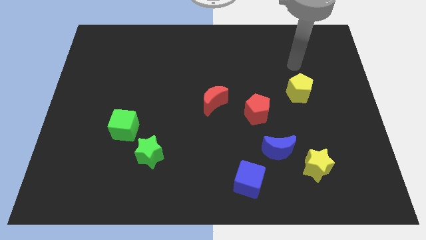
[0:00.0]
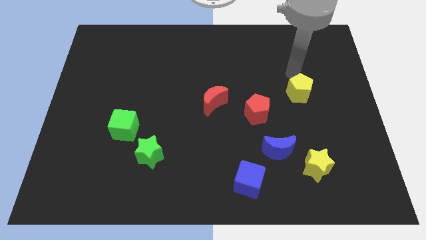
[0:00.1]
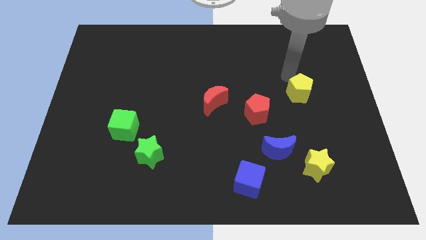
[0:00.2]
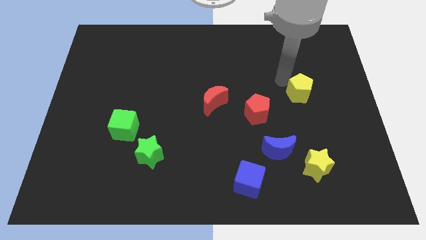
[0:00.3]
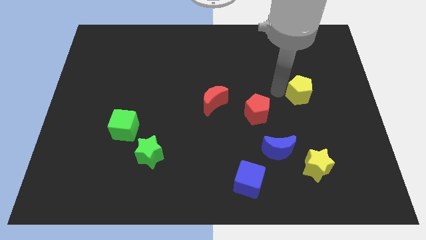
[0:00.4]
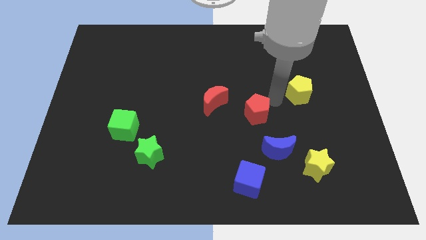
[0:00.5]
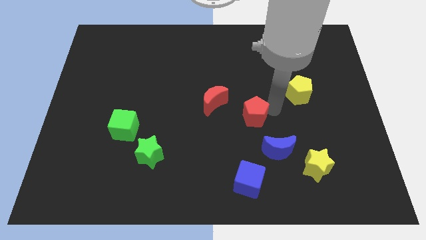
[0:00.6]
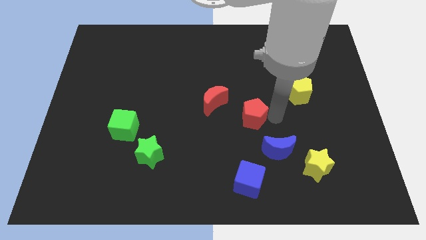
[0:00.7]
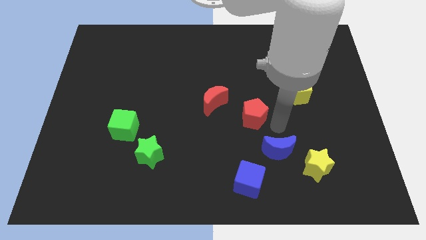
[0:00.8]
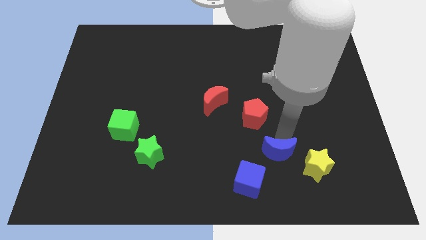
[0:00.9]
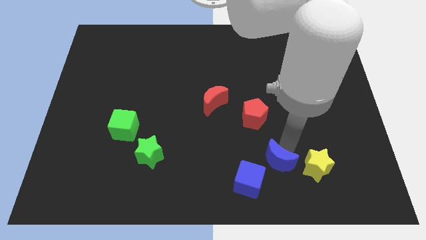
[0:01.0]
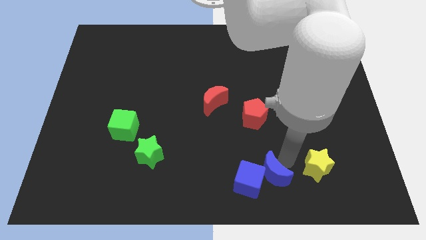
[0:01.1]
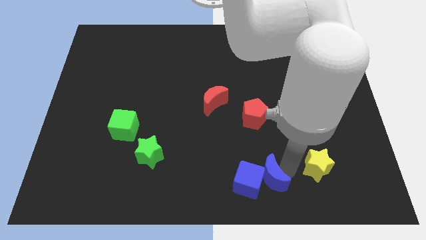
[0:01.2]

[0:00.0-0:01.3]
pull the yellow star apart from the blue moon

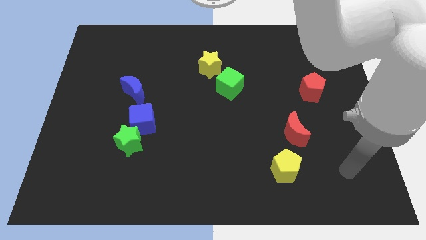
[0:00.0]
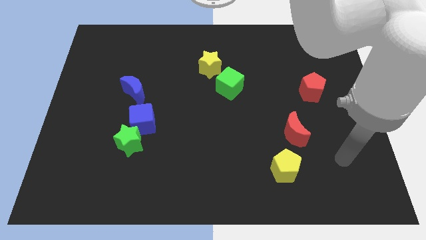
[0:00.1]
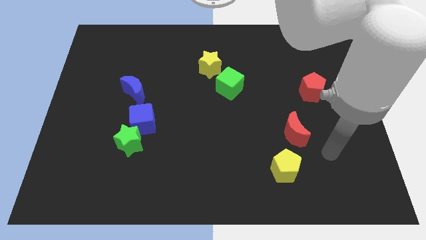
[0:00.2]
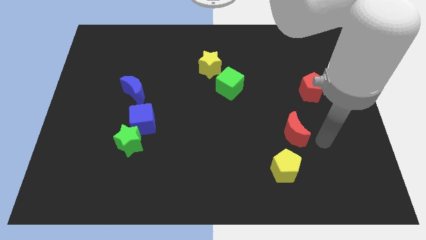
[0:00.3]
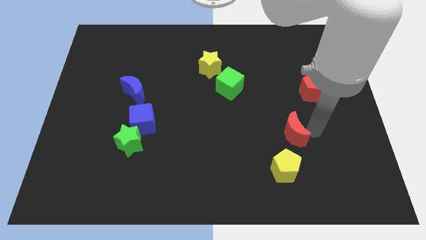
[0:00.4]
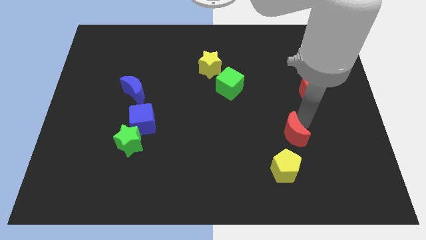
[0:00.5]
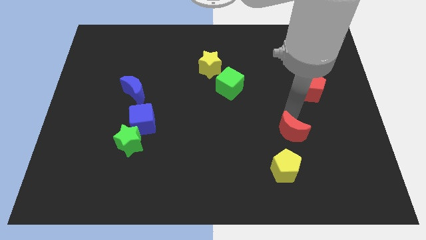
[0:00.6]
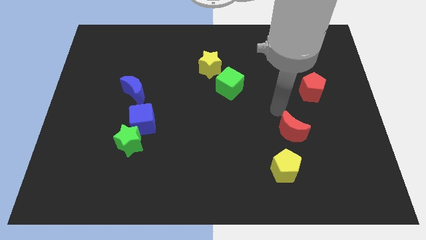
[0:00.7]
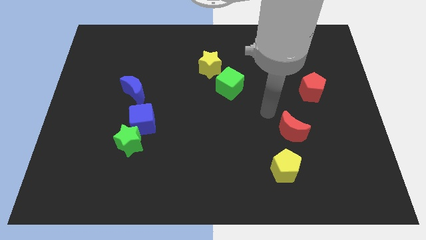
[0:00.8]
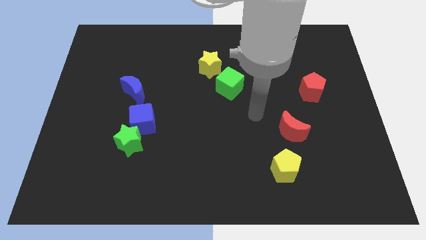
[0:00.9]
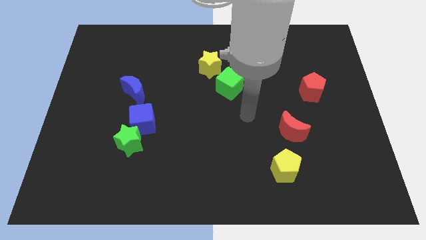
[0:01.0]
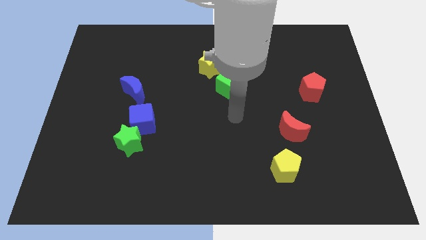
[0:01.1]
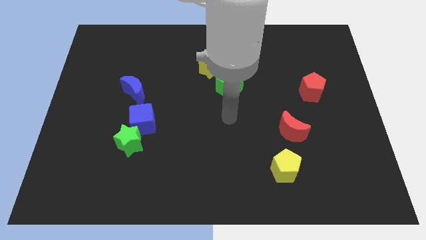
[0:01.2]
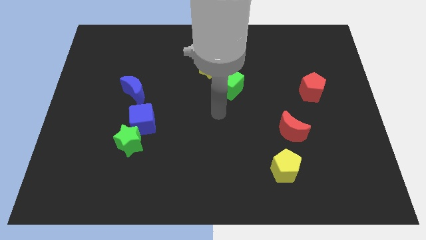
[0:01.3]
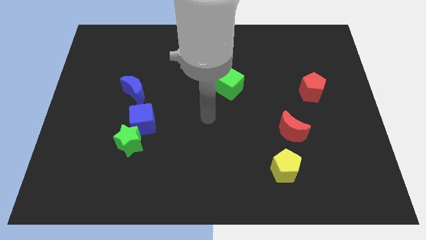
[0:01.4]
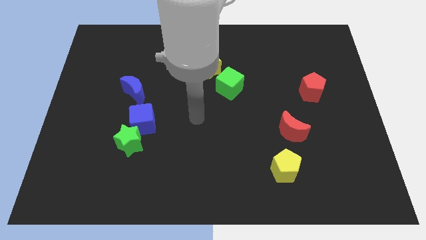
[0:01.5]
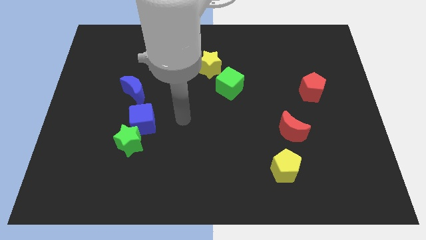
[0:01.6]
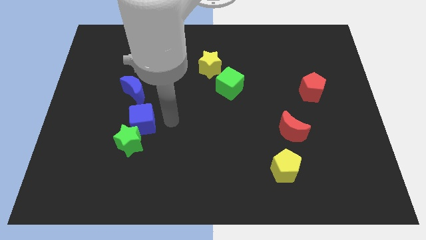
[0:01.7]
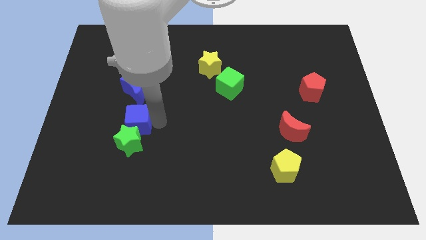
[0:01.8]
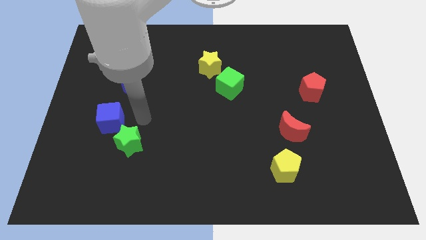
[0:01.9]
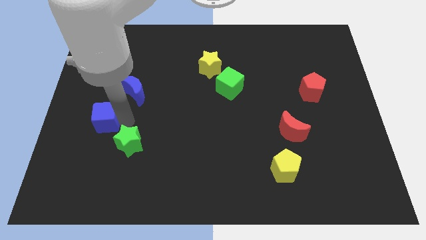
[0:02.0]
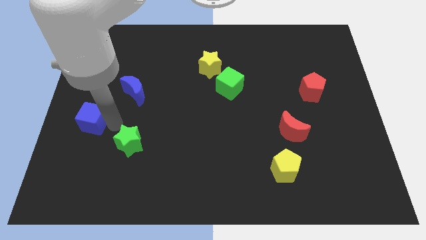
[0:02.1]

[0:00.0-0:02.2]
separate the green star from the blue cube

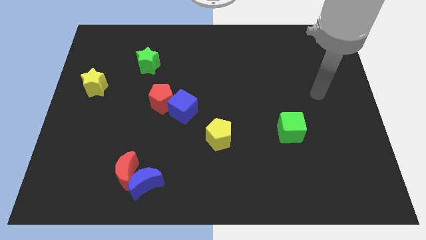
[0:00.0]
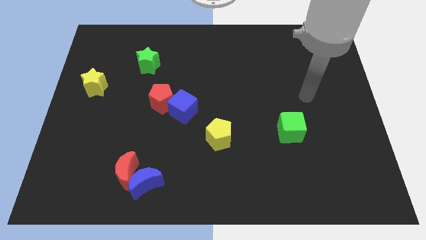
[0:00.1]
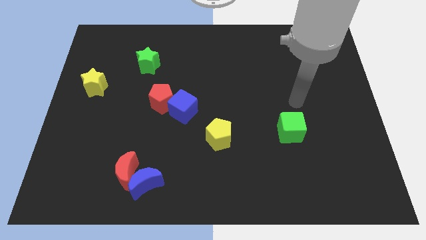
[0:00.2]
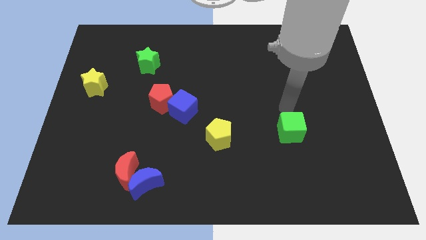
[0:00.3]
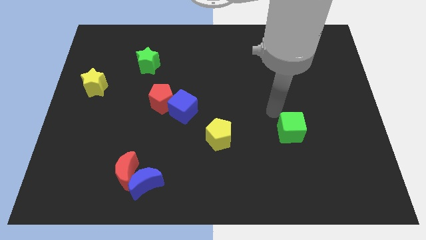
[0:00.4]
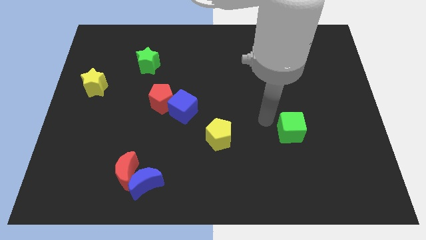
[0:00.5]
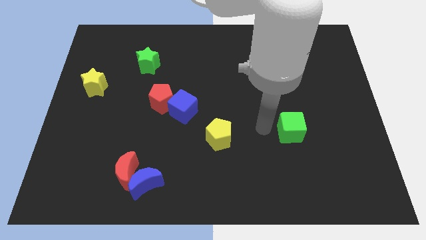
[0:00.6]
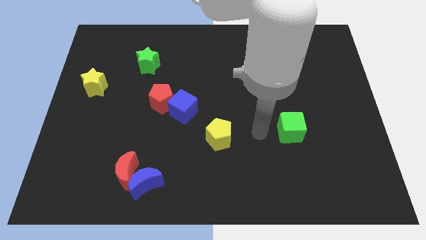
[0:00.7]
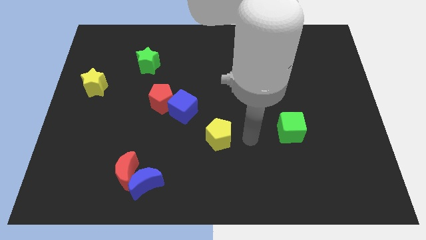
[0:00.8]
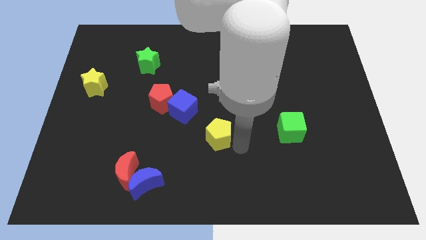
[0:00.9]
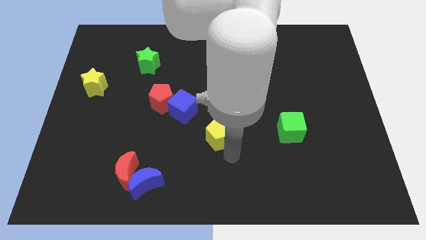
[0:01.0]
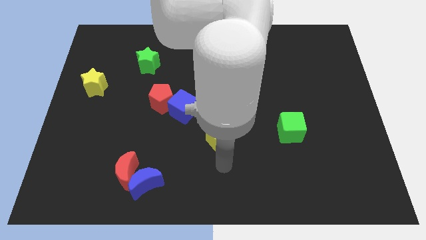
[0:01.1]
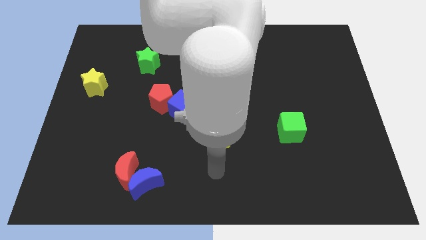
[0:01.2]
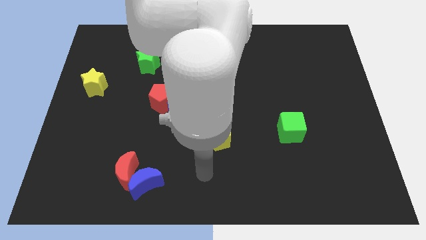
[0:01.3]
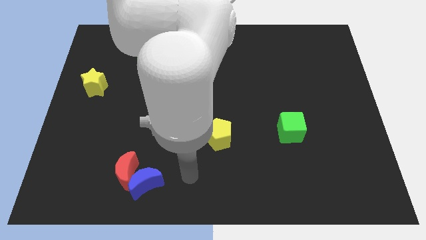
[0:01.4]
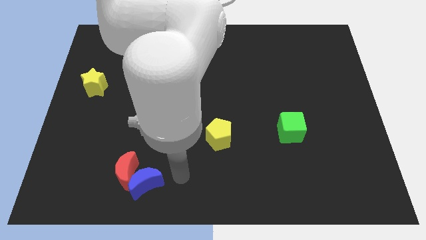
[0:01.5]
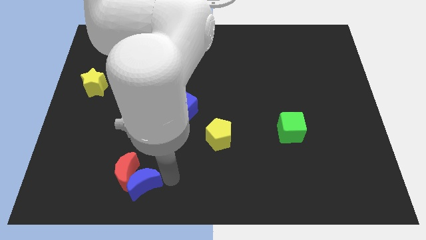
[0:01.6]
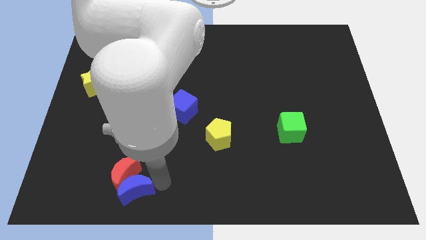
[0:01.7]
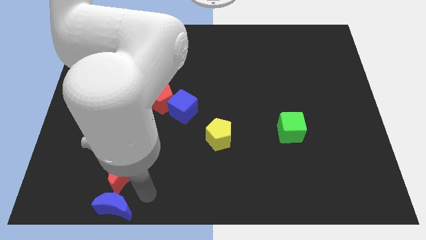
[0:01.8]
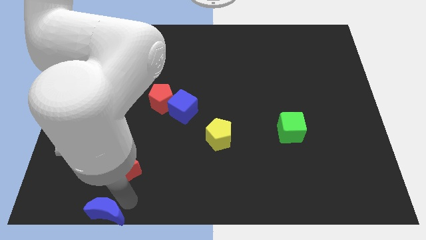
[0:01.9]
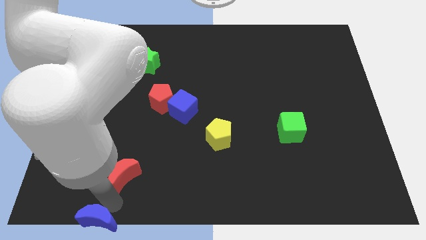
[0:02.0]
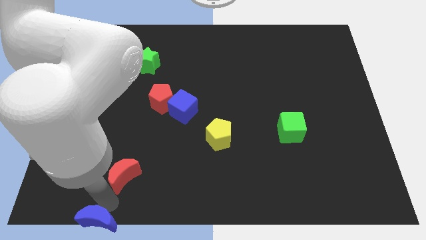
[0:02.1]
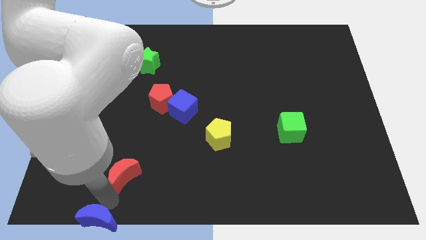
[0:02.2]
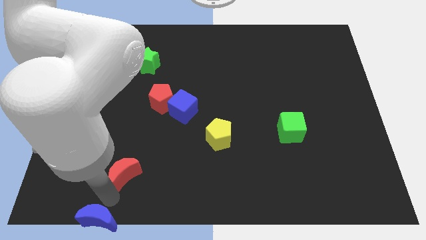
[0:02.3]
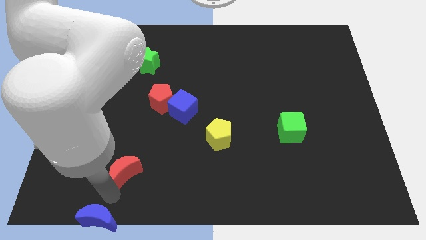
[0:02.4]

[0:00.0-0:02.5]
pull the red moon apart from the blue moon

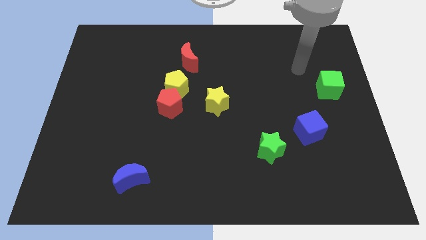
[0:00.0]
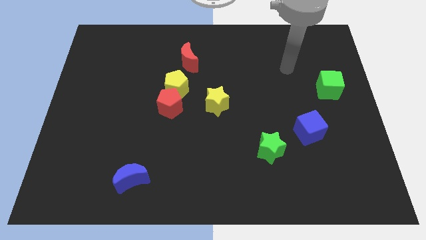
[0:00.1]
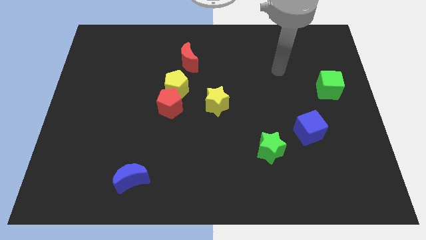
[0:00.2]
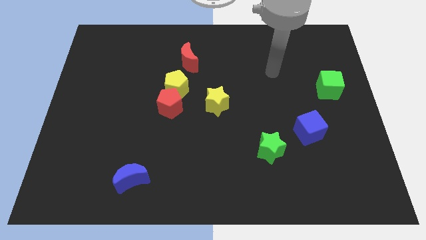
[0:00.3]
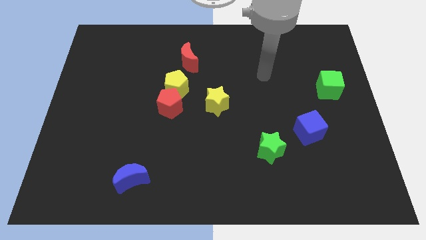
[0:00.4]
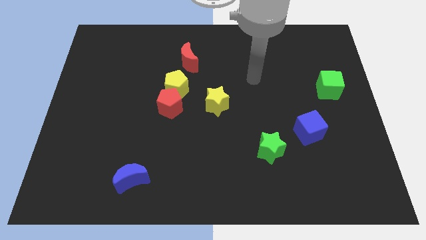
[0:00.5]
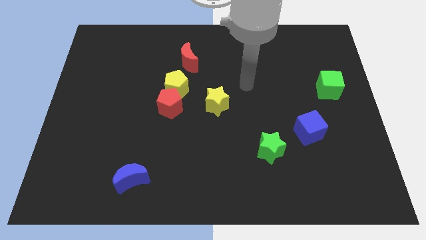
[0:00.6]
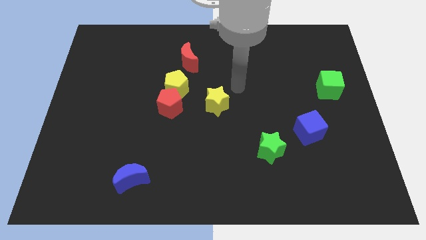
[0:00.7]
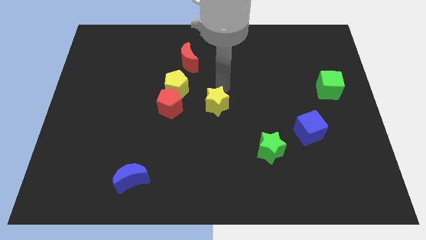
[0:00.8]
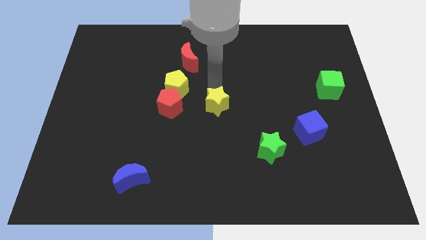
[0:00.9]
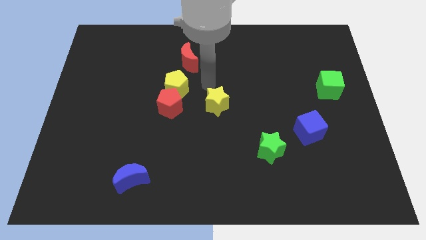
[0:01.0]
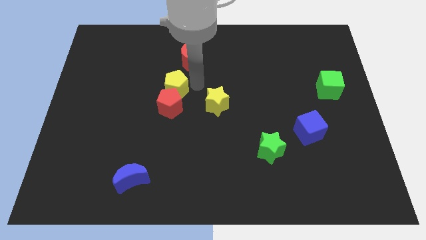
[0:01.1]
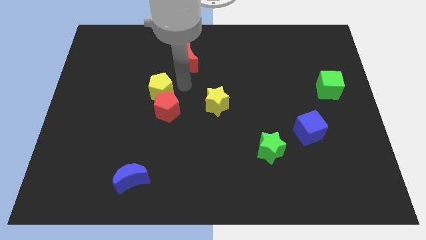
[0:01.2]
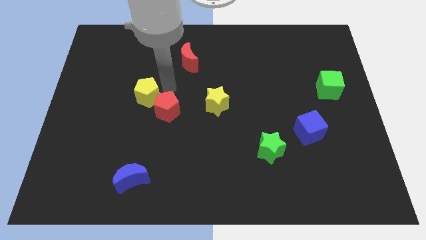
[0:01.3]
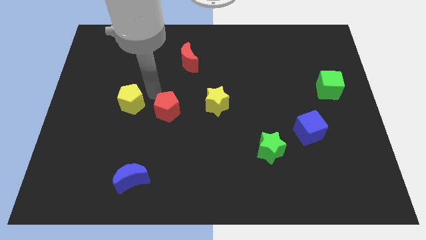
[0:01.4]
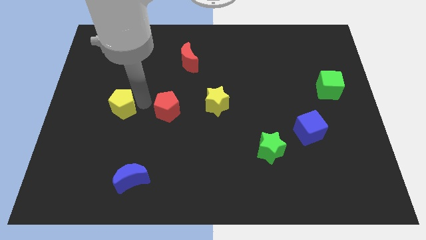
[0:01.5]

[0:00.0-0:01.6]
pull the red pentagon apart from the yellow pentagon

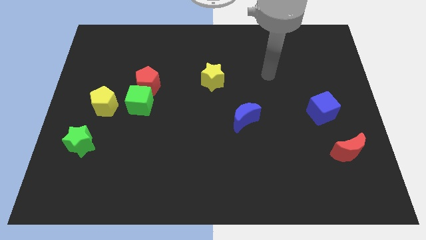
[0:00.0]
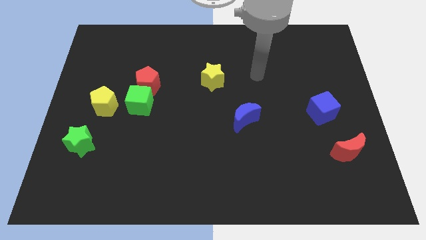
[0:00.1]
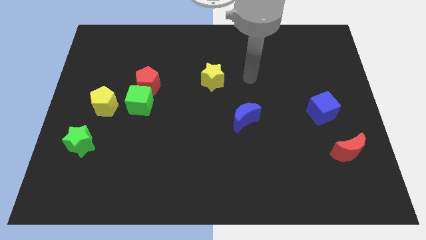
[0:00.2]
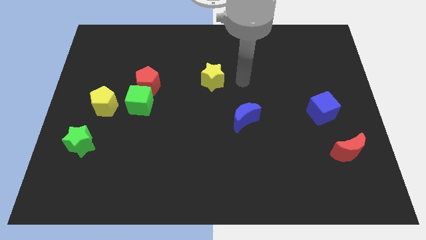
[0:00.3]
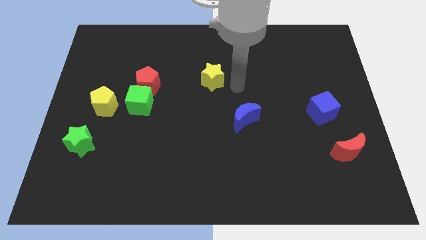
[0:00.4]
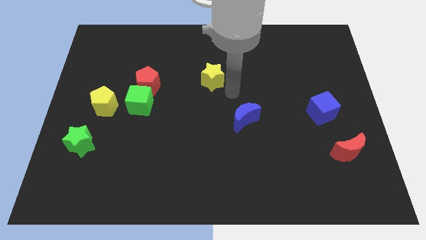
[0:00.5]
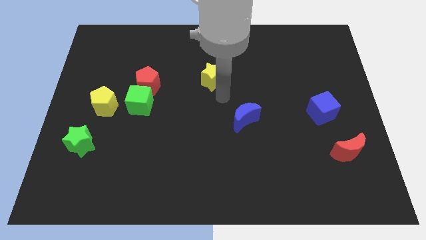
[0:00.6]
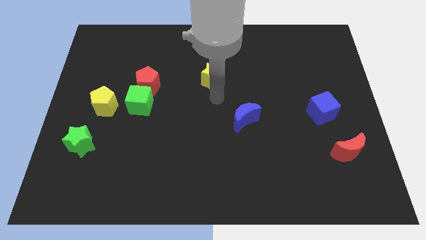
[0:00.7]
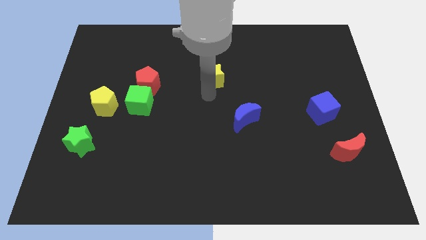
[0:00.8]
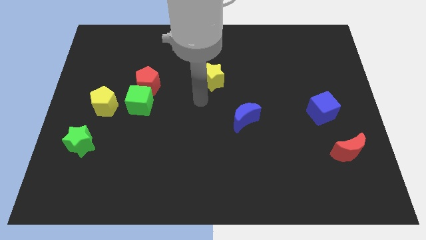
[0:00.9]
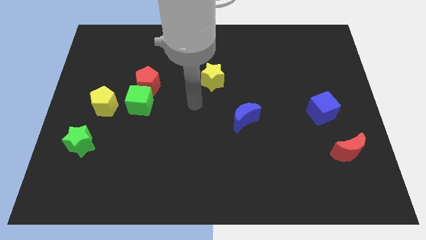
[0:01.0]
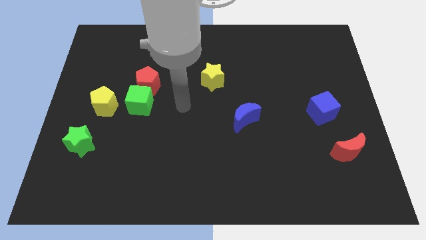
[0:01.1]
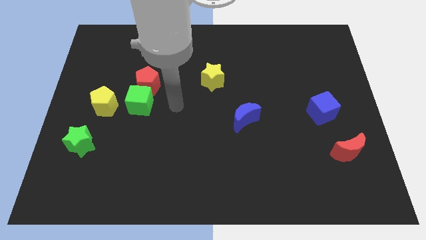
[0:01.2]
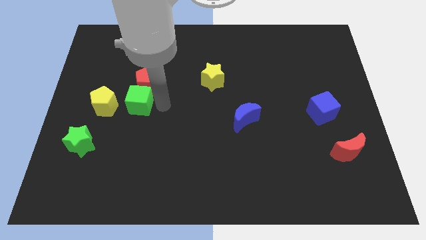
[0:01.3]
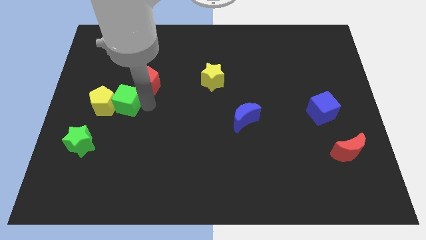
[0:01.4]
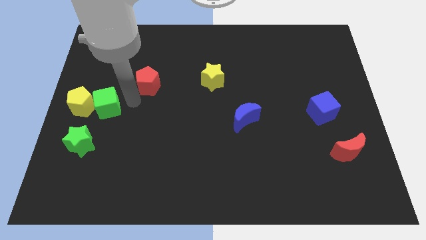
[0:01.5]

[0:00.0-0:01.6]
move the red pentagon away from the green cube

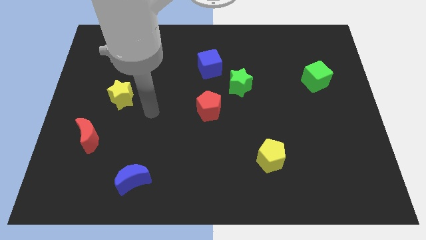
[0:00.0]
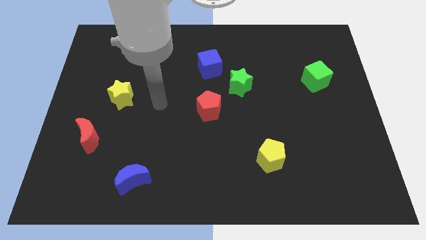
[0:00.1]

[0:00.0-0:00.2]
move the blue cube away from the green star
